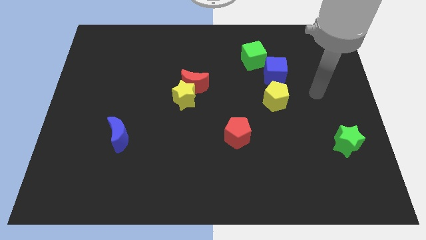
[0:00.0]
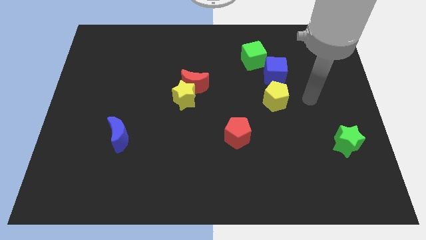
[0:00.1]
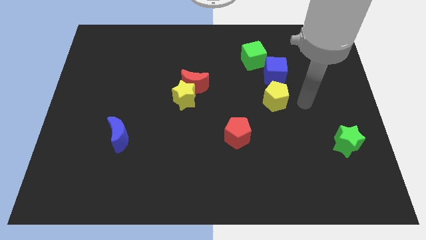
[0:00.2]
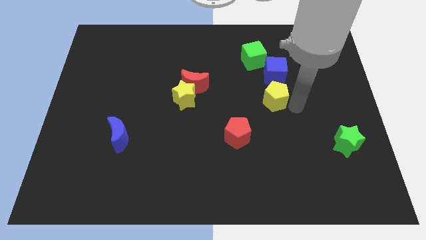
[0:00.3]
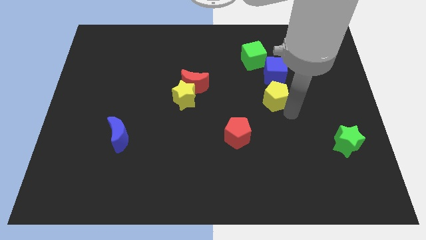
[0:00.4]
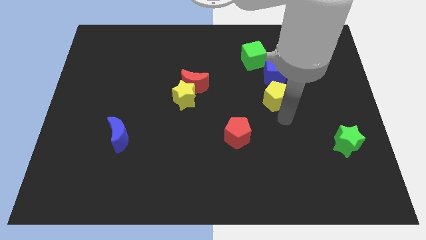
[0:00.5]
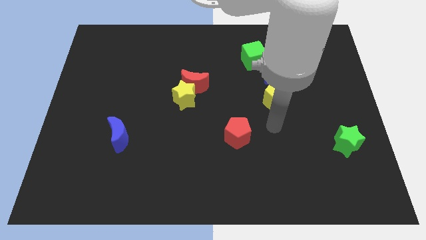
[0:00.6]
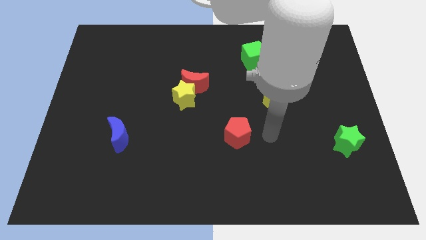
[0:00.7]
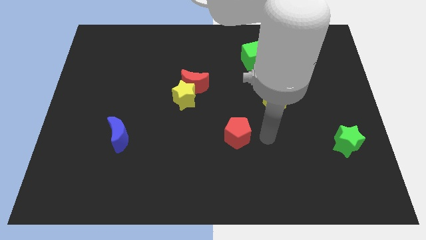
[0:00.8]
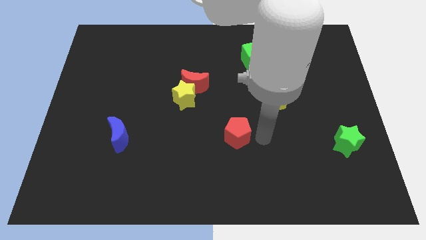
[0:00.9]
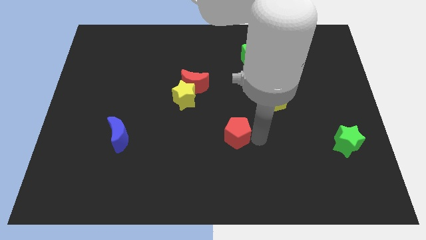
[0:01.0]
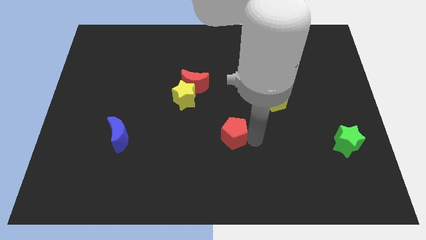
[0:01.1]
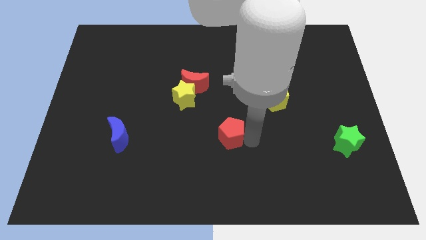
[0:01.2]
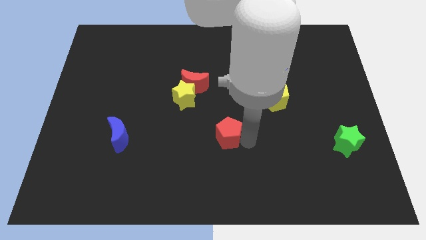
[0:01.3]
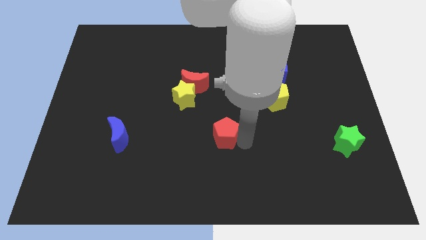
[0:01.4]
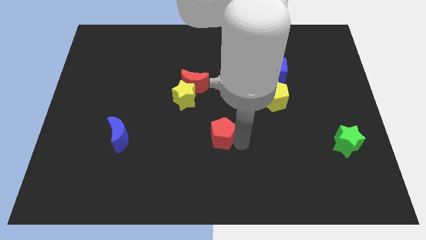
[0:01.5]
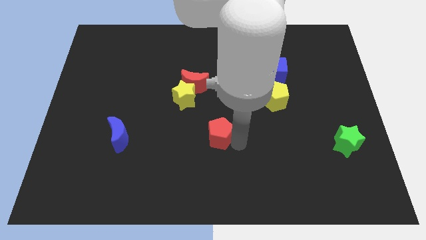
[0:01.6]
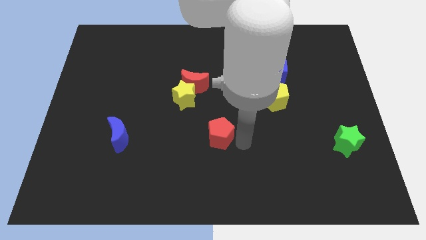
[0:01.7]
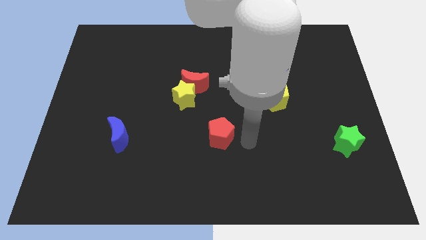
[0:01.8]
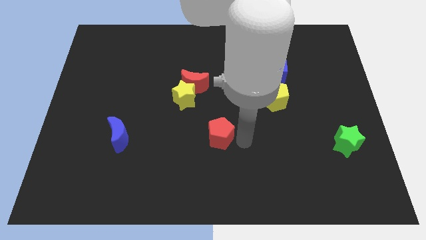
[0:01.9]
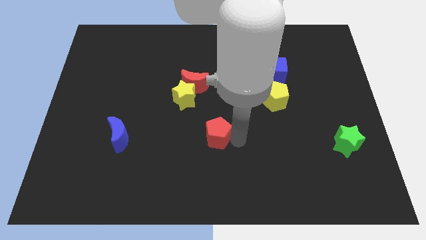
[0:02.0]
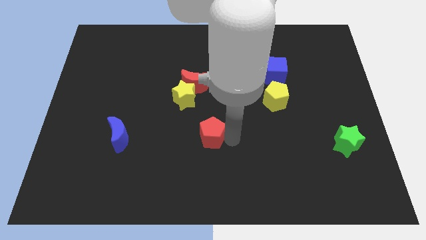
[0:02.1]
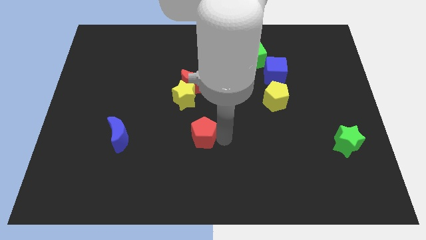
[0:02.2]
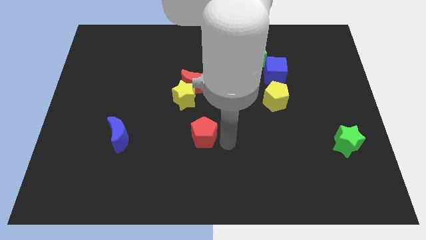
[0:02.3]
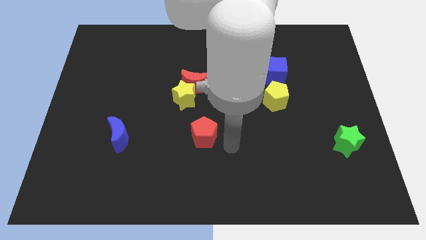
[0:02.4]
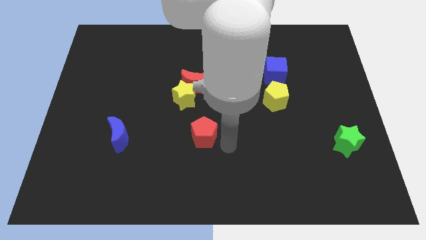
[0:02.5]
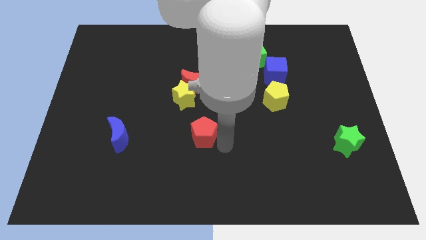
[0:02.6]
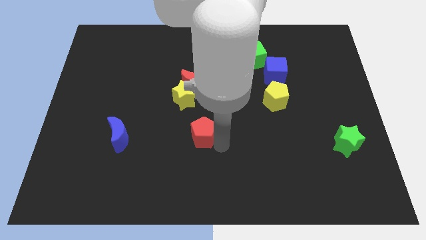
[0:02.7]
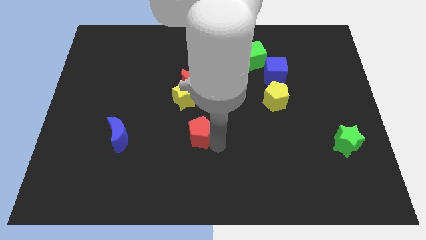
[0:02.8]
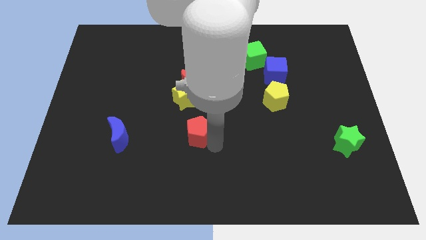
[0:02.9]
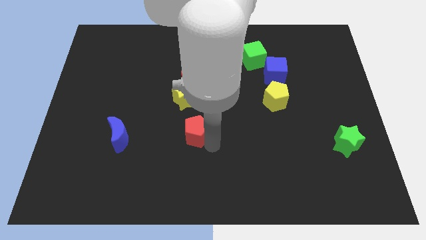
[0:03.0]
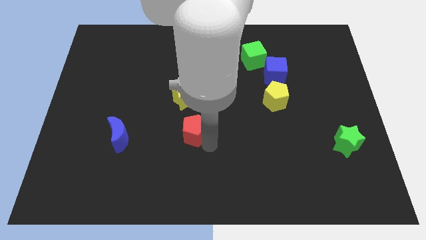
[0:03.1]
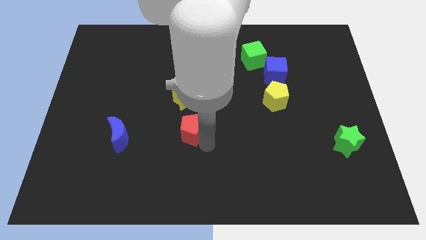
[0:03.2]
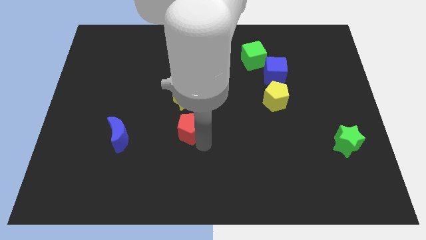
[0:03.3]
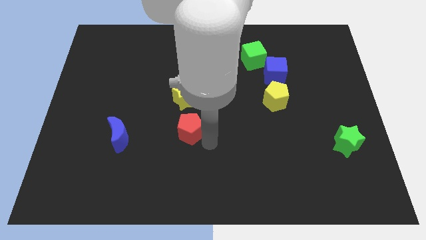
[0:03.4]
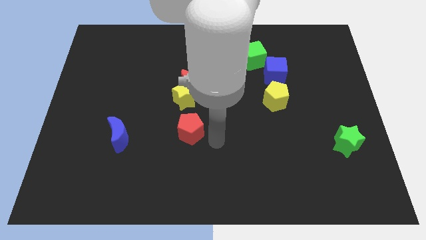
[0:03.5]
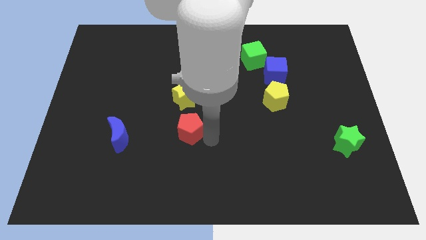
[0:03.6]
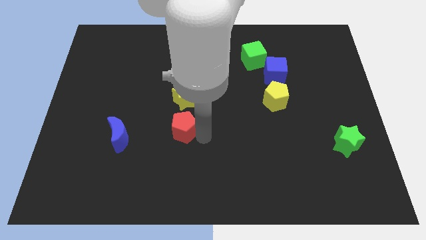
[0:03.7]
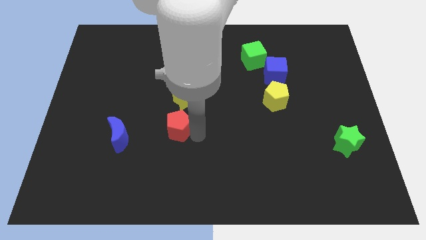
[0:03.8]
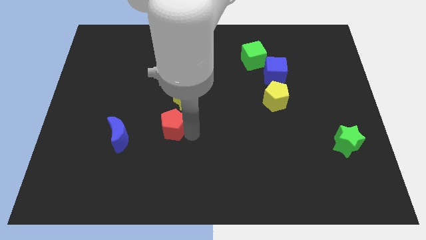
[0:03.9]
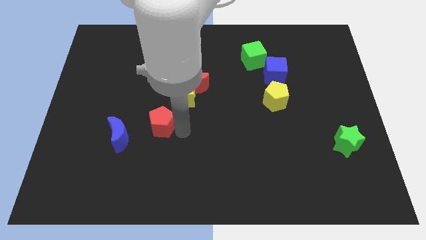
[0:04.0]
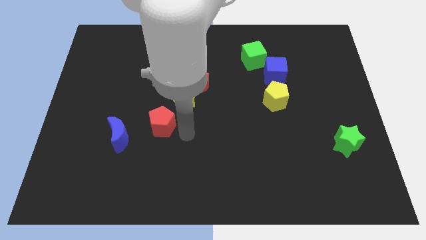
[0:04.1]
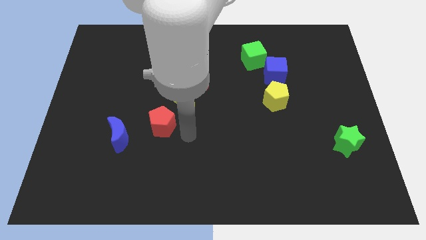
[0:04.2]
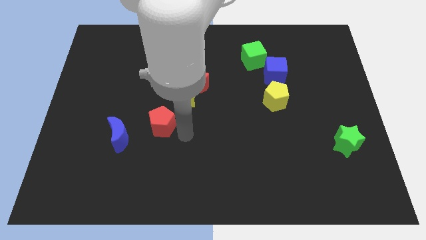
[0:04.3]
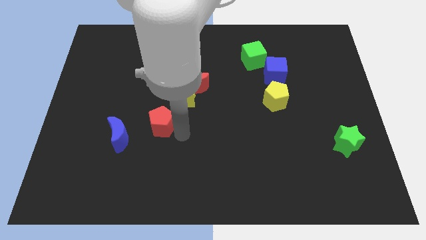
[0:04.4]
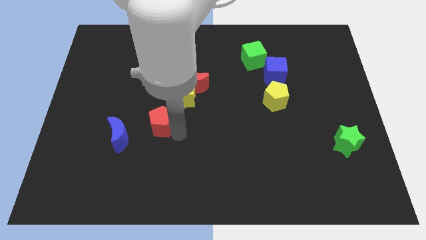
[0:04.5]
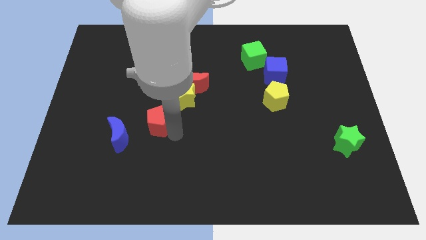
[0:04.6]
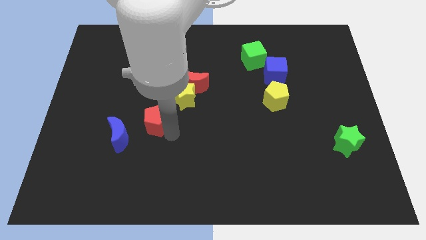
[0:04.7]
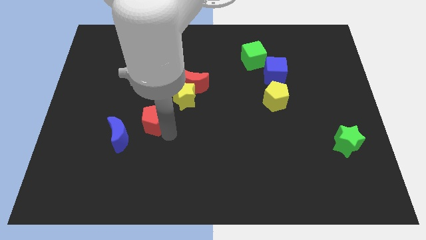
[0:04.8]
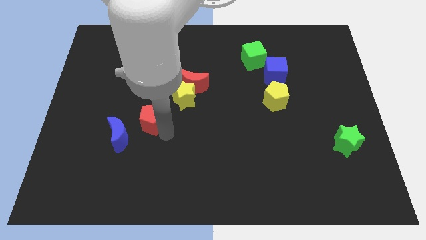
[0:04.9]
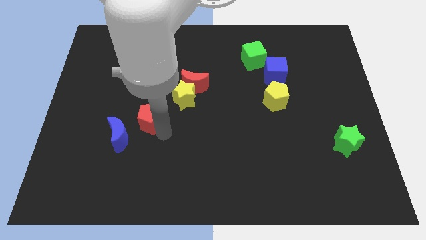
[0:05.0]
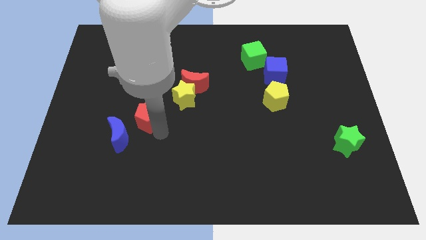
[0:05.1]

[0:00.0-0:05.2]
move the red pentagon left

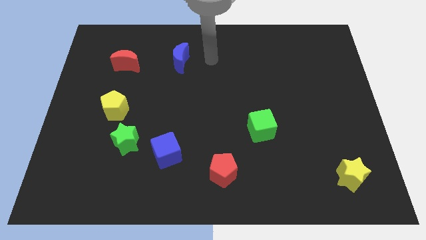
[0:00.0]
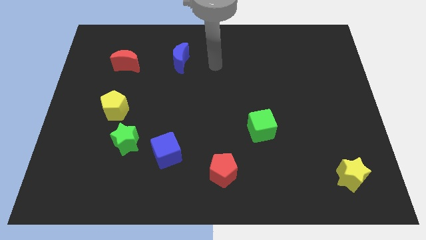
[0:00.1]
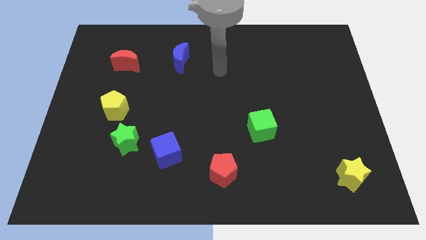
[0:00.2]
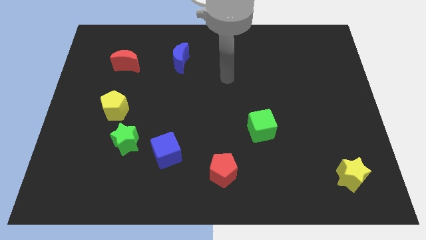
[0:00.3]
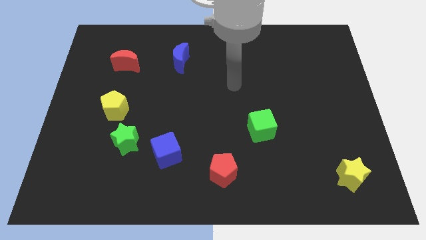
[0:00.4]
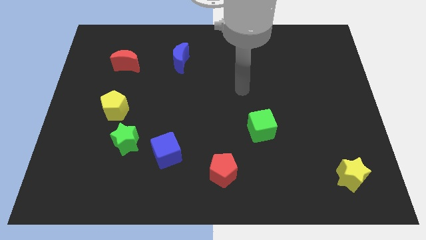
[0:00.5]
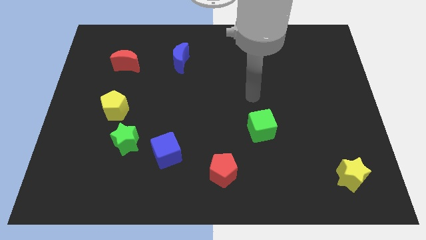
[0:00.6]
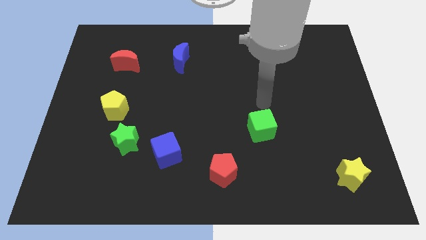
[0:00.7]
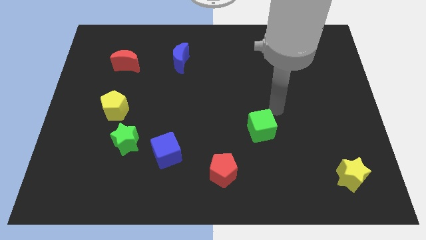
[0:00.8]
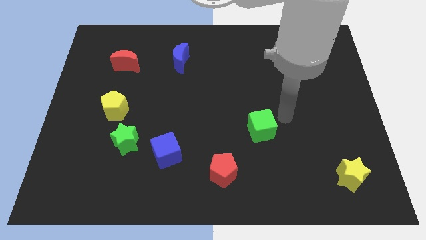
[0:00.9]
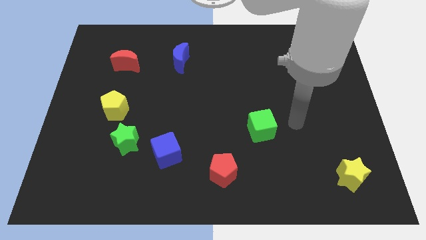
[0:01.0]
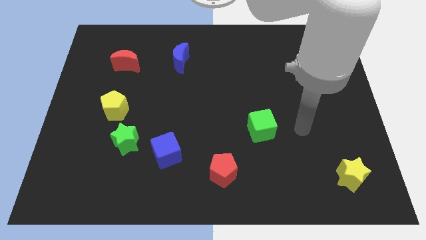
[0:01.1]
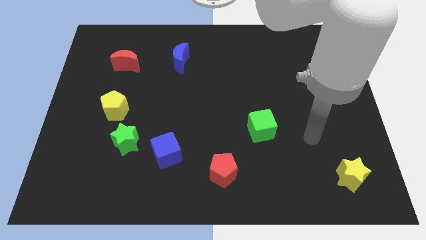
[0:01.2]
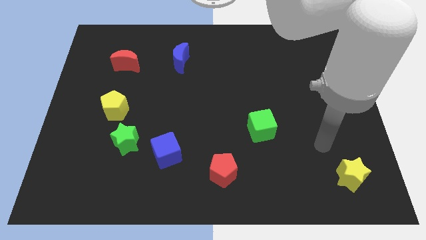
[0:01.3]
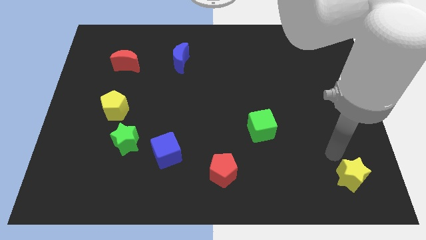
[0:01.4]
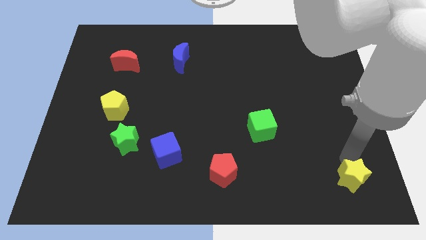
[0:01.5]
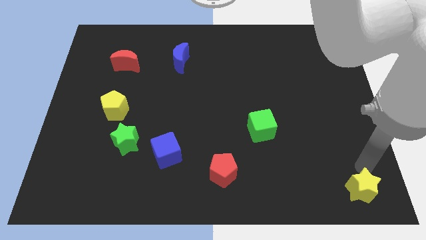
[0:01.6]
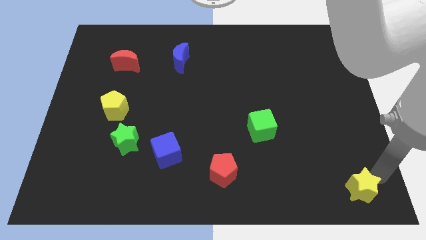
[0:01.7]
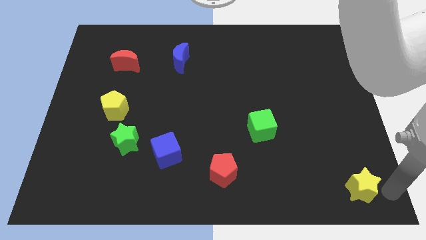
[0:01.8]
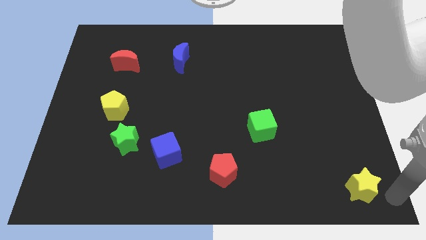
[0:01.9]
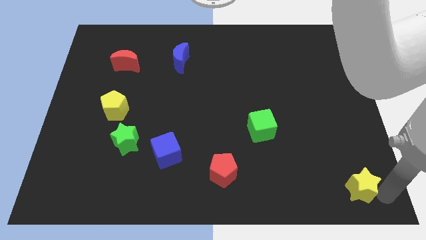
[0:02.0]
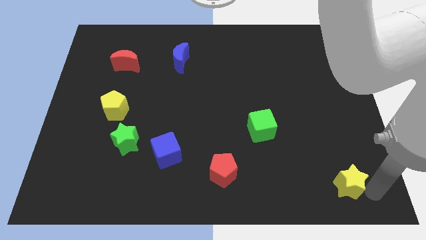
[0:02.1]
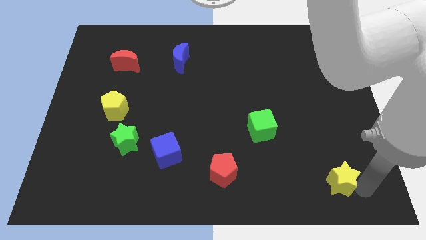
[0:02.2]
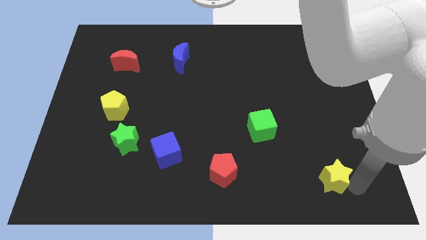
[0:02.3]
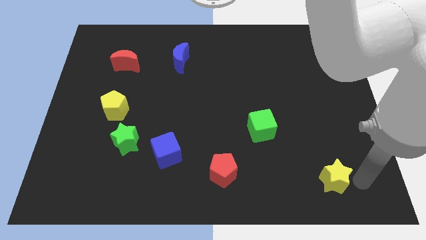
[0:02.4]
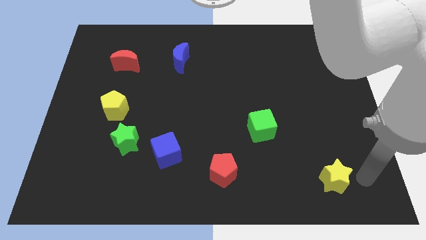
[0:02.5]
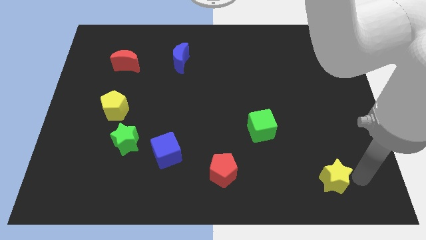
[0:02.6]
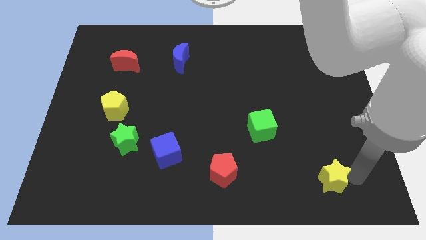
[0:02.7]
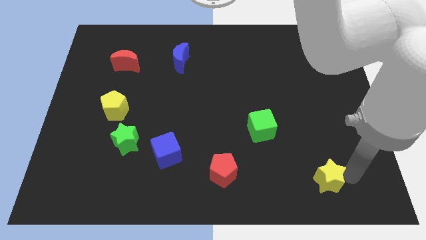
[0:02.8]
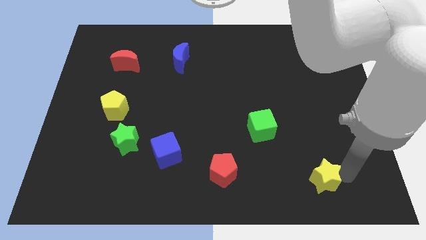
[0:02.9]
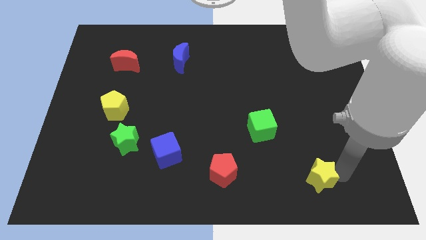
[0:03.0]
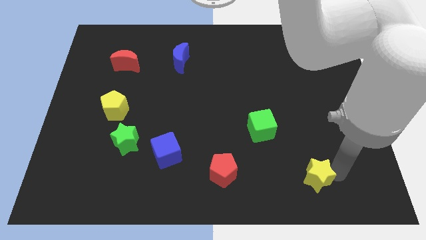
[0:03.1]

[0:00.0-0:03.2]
slide the yellow star to the left a little
